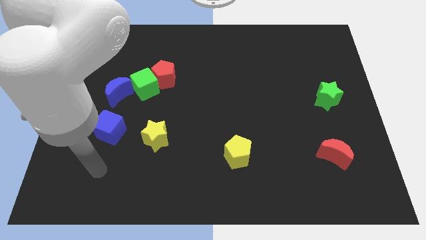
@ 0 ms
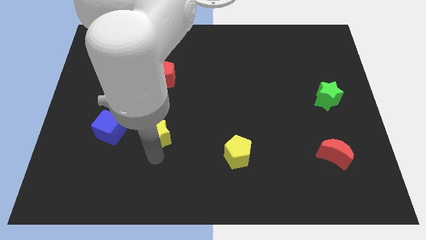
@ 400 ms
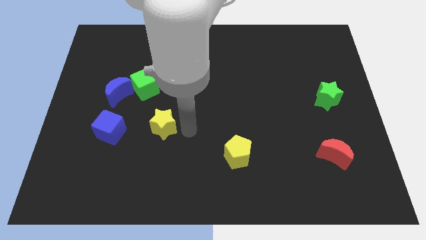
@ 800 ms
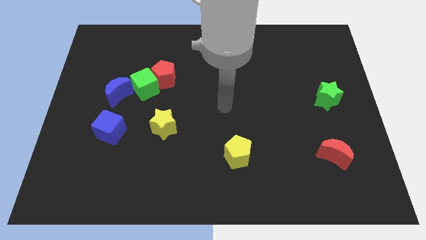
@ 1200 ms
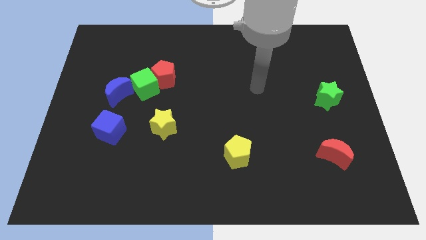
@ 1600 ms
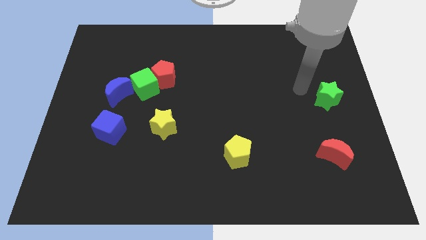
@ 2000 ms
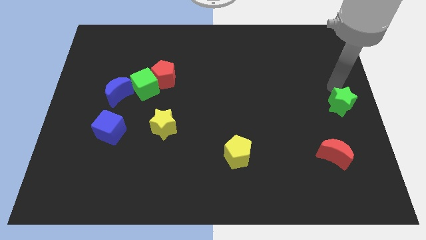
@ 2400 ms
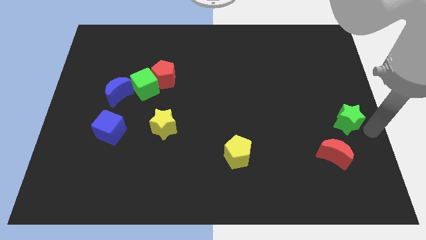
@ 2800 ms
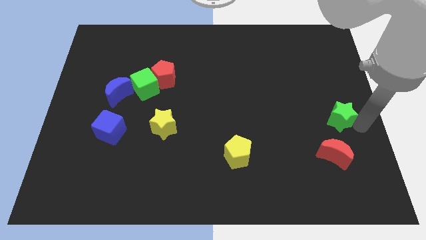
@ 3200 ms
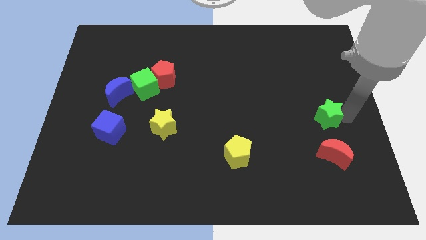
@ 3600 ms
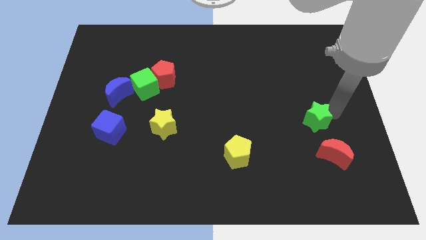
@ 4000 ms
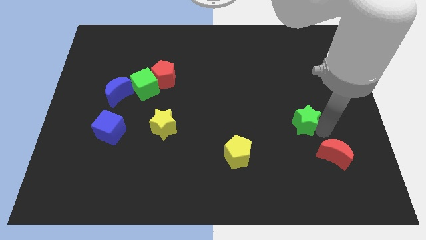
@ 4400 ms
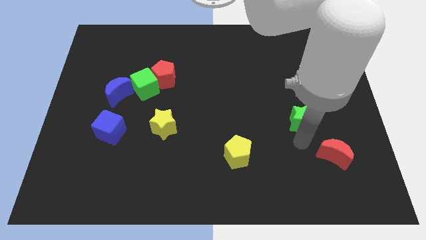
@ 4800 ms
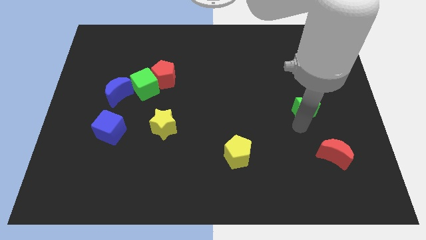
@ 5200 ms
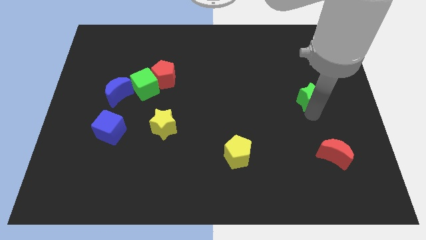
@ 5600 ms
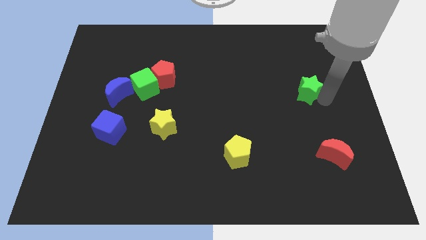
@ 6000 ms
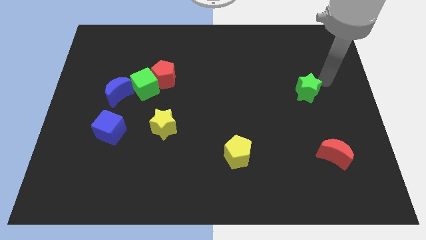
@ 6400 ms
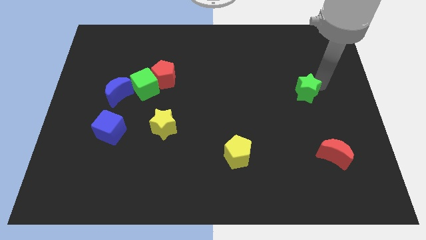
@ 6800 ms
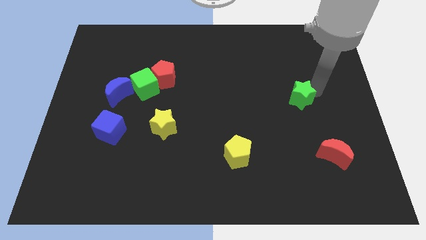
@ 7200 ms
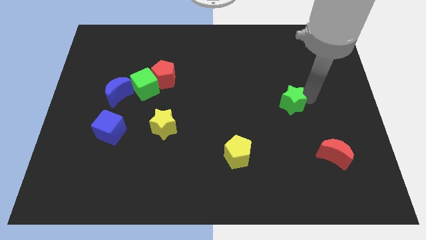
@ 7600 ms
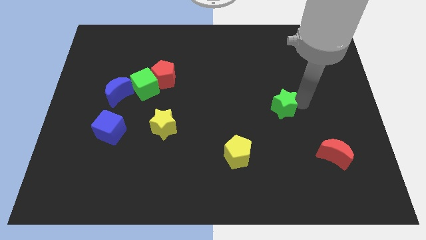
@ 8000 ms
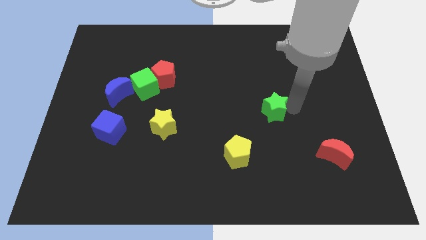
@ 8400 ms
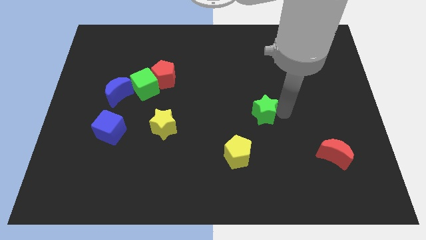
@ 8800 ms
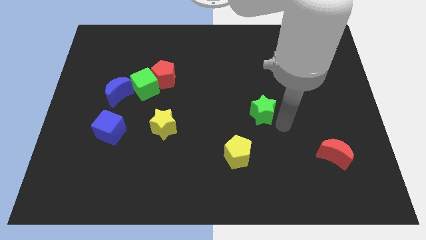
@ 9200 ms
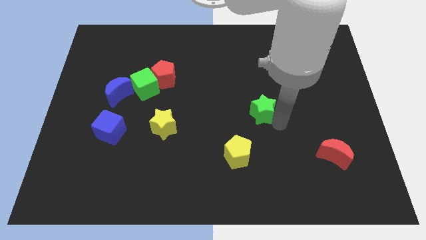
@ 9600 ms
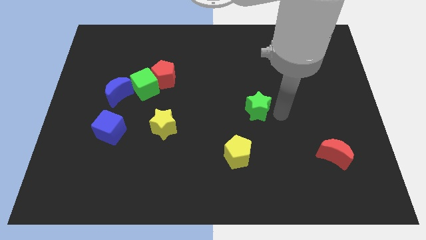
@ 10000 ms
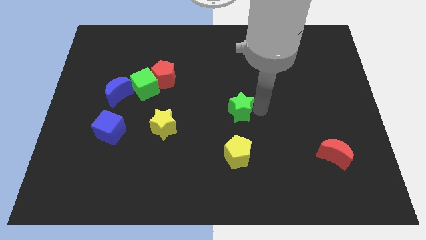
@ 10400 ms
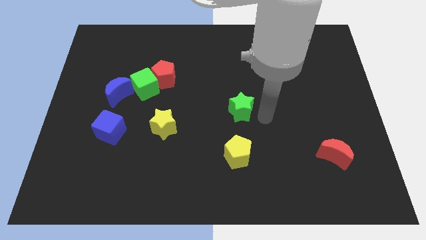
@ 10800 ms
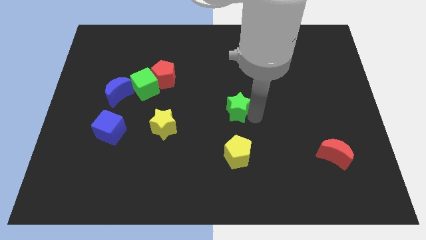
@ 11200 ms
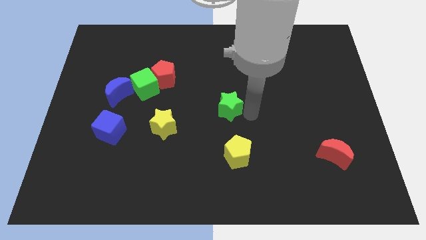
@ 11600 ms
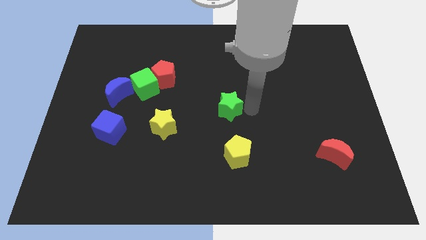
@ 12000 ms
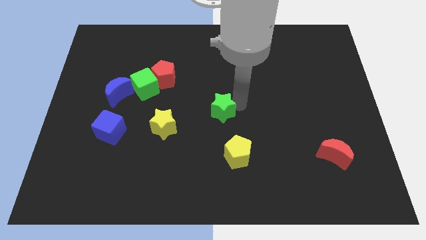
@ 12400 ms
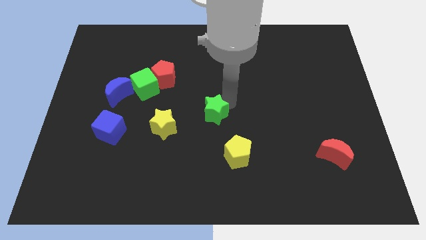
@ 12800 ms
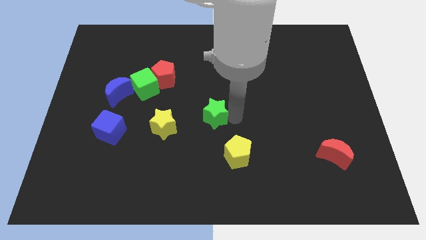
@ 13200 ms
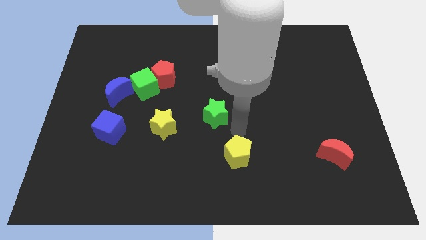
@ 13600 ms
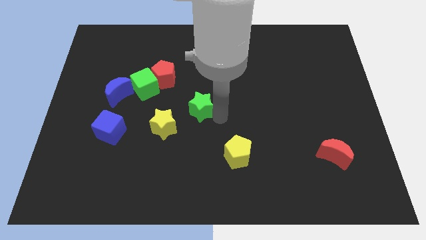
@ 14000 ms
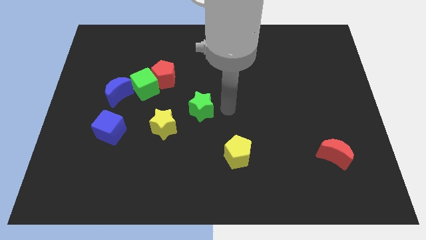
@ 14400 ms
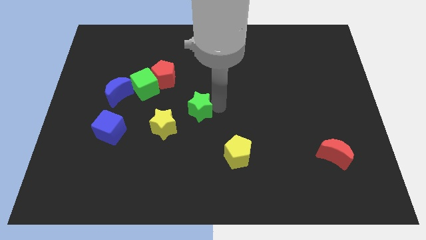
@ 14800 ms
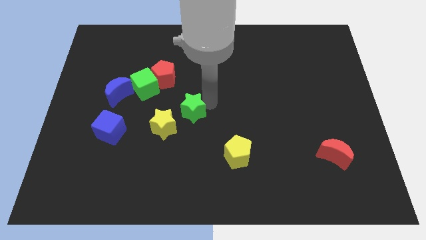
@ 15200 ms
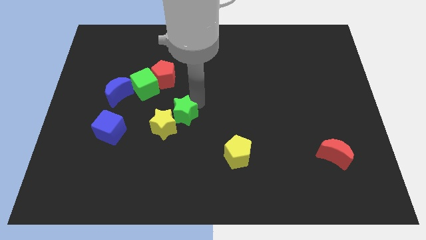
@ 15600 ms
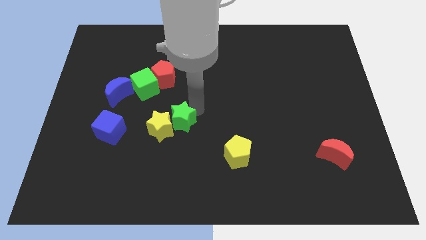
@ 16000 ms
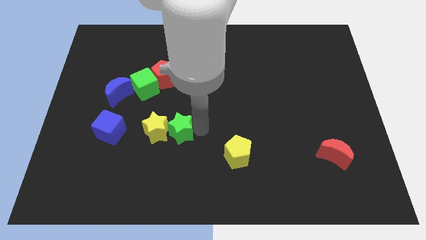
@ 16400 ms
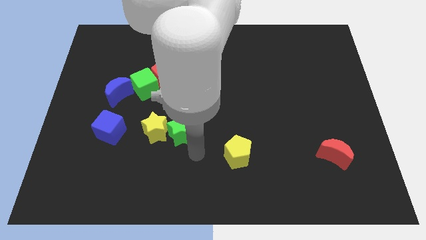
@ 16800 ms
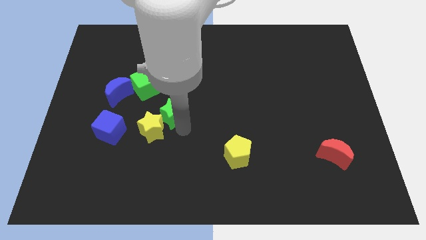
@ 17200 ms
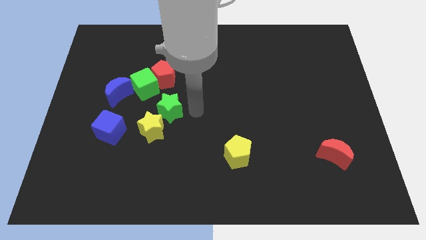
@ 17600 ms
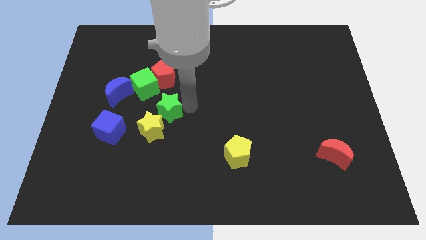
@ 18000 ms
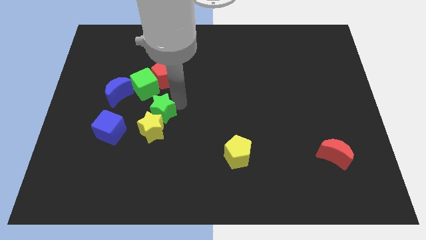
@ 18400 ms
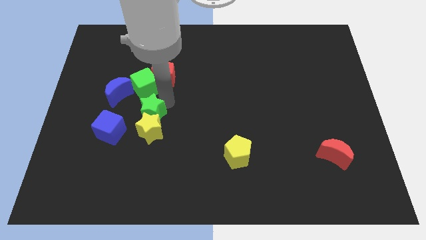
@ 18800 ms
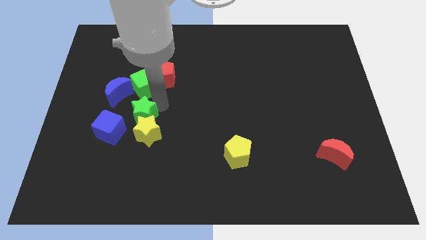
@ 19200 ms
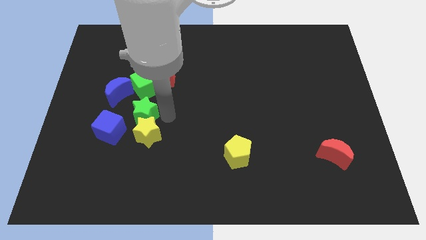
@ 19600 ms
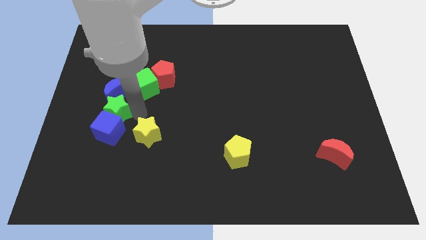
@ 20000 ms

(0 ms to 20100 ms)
put the green star to the top left of the blue cube

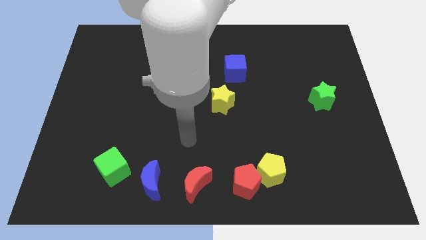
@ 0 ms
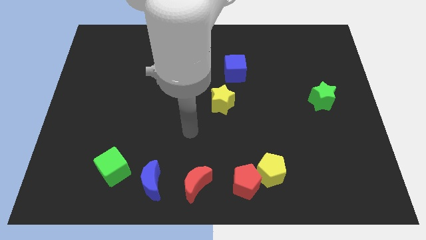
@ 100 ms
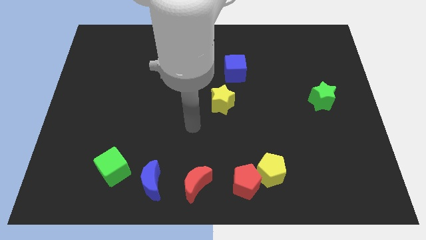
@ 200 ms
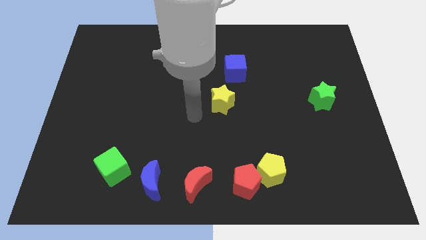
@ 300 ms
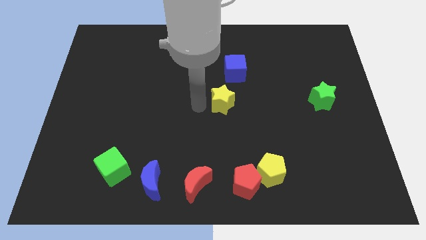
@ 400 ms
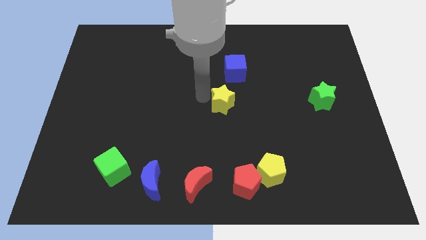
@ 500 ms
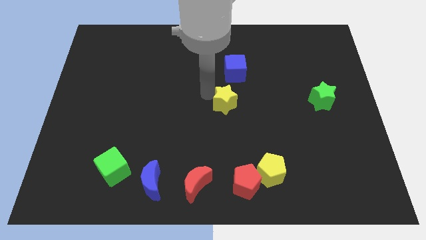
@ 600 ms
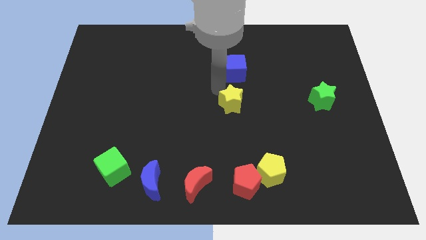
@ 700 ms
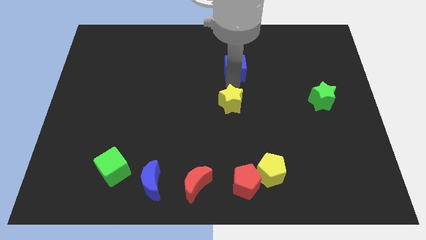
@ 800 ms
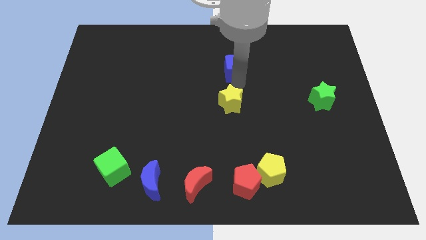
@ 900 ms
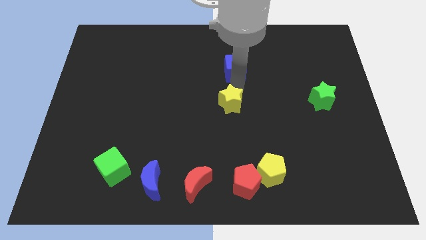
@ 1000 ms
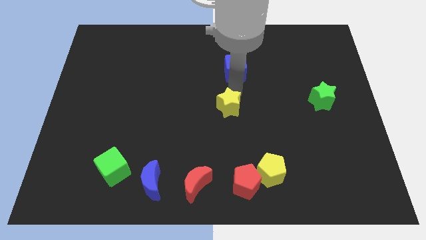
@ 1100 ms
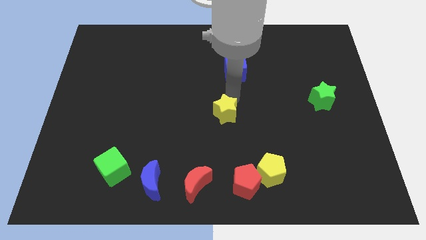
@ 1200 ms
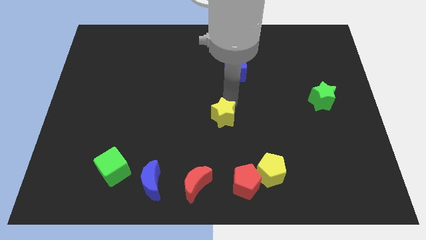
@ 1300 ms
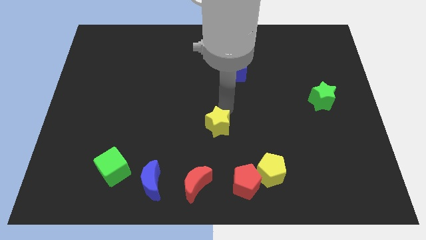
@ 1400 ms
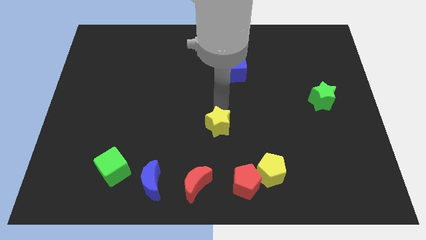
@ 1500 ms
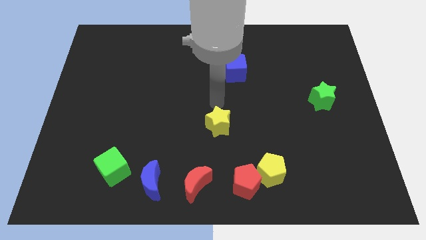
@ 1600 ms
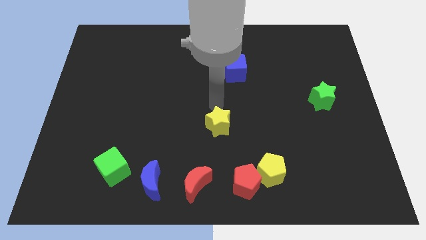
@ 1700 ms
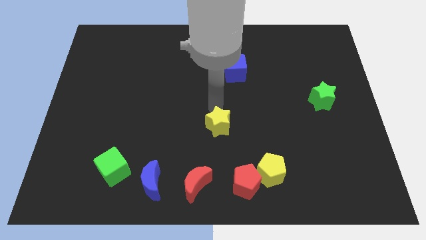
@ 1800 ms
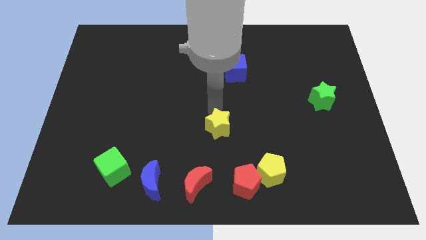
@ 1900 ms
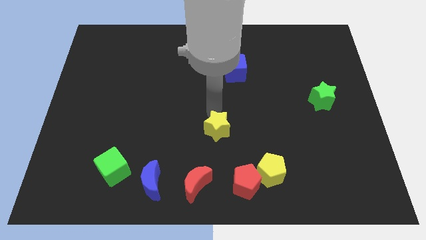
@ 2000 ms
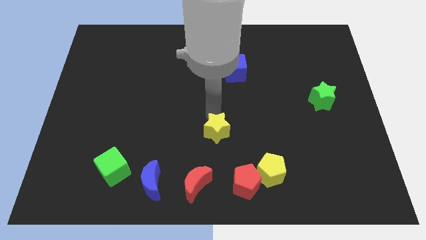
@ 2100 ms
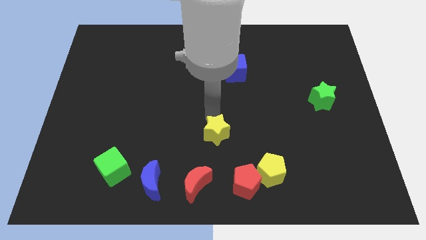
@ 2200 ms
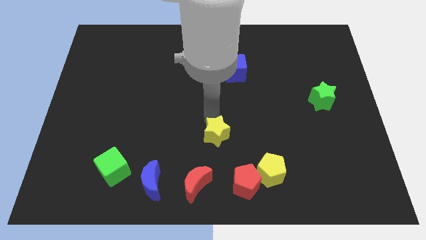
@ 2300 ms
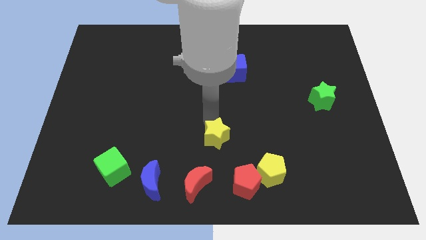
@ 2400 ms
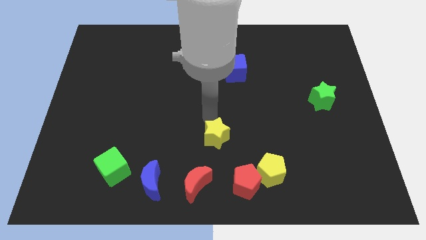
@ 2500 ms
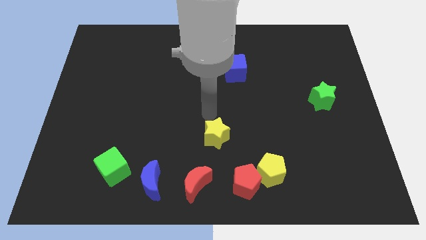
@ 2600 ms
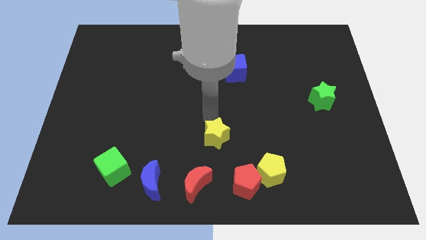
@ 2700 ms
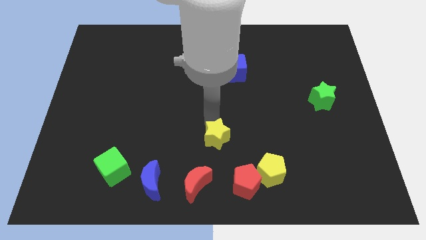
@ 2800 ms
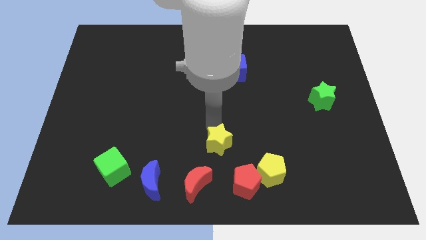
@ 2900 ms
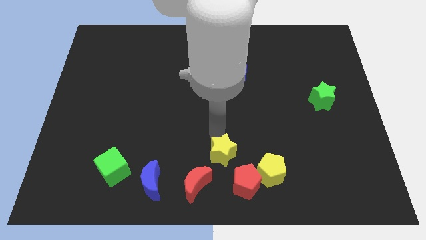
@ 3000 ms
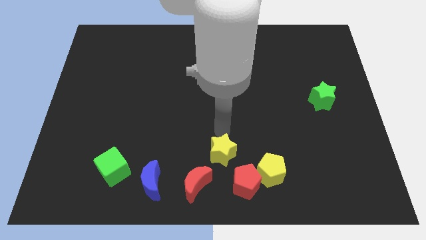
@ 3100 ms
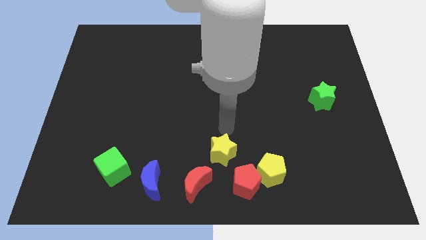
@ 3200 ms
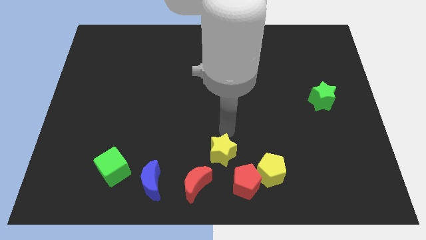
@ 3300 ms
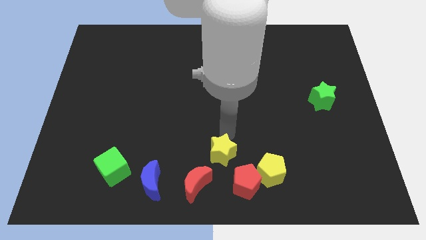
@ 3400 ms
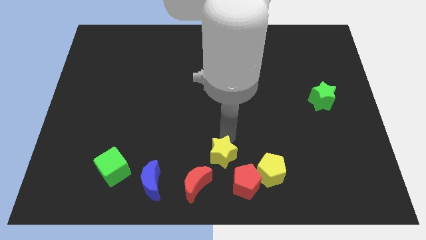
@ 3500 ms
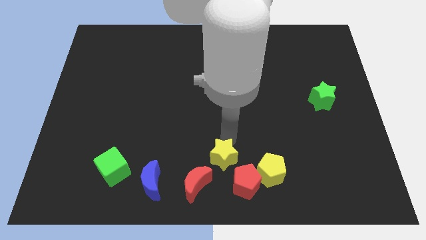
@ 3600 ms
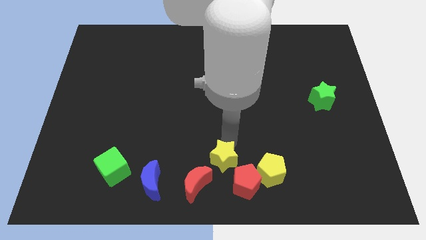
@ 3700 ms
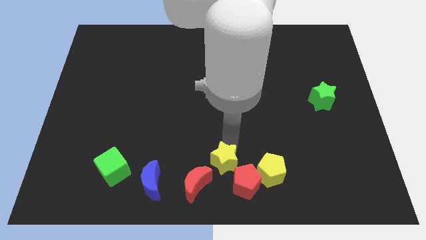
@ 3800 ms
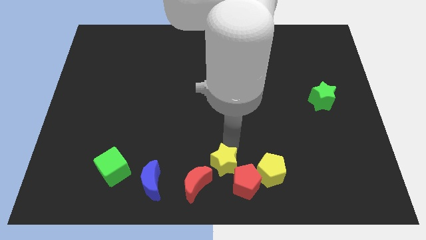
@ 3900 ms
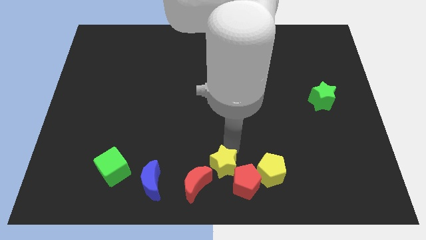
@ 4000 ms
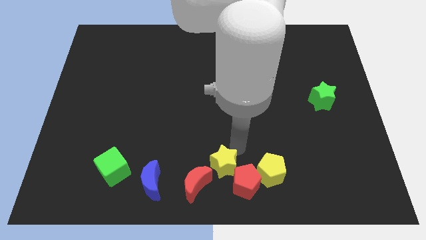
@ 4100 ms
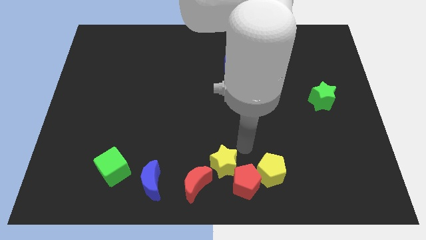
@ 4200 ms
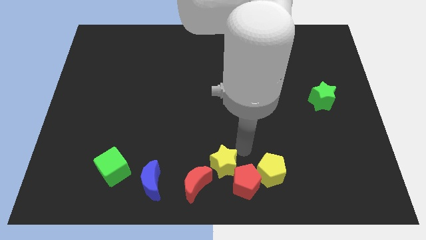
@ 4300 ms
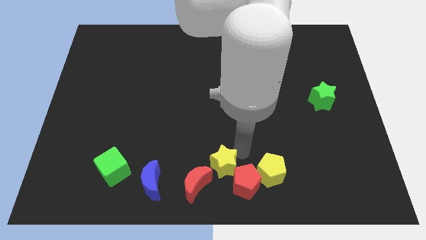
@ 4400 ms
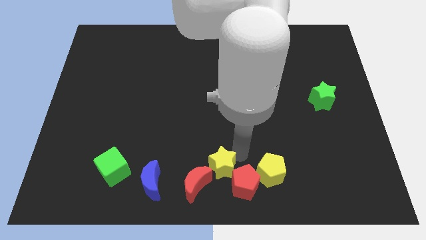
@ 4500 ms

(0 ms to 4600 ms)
slide the yellow star to the right side of the blue moon
